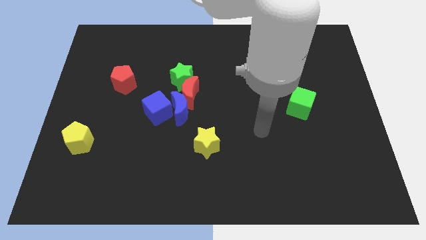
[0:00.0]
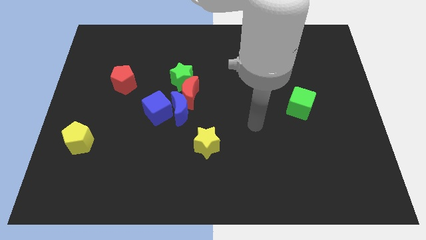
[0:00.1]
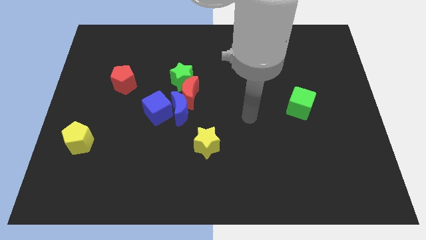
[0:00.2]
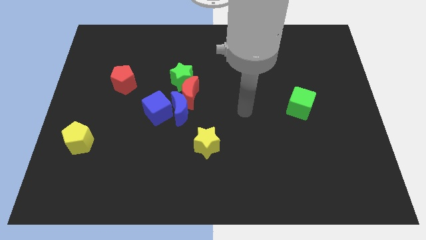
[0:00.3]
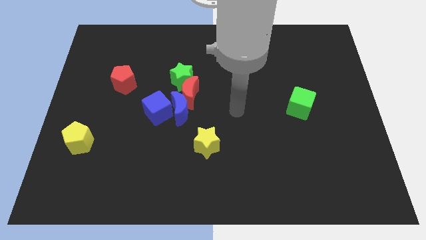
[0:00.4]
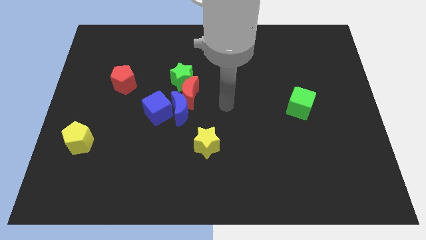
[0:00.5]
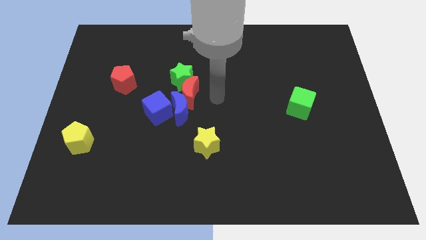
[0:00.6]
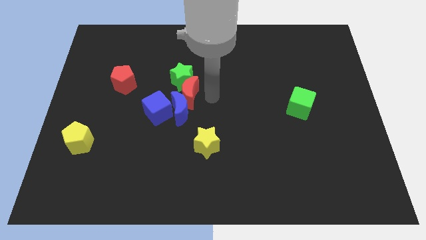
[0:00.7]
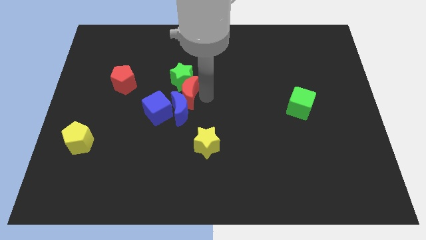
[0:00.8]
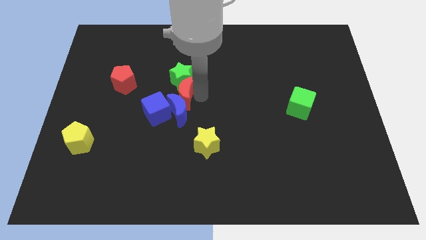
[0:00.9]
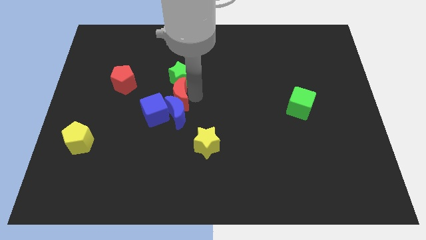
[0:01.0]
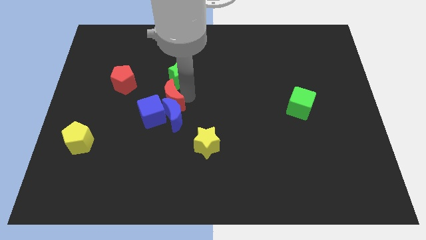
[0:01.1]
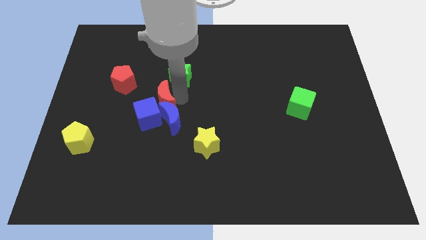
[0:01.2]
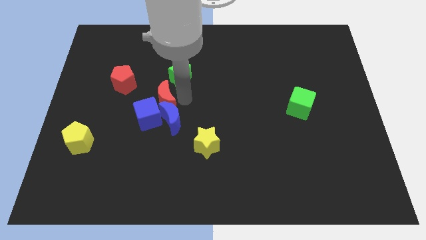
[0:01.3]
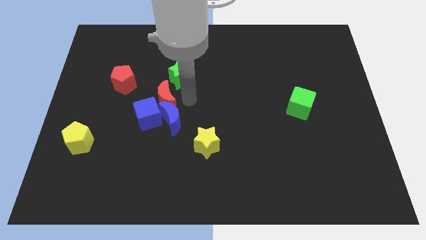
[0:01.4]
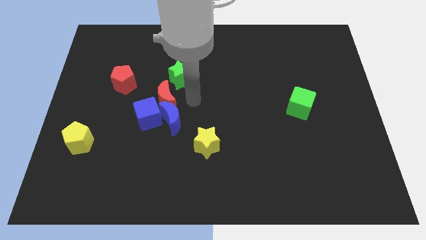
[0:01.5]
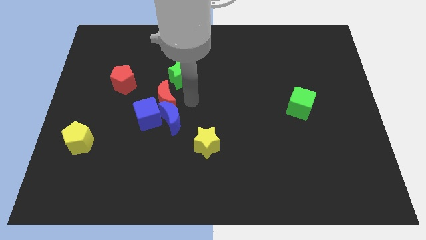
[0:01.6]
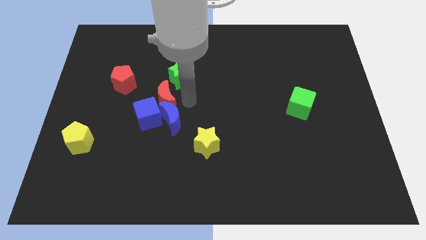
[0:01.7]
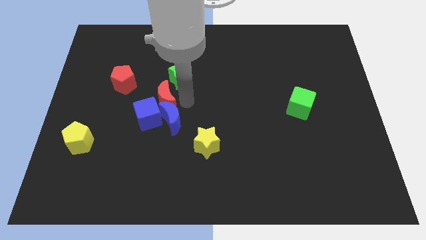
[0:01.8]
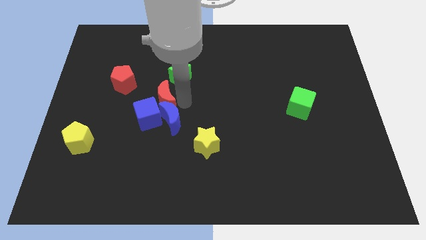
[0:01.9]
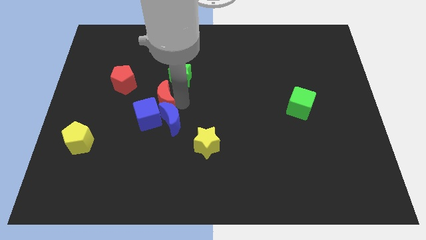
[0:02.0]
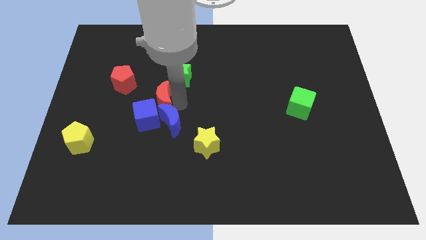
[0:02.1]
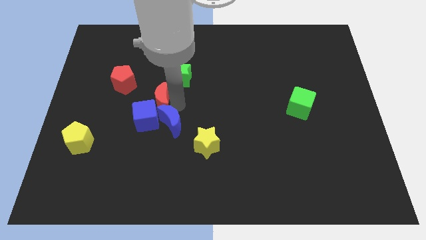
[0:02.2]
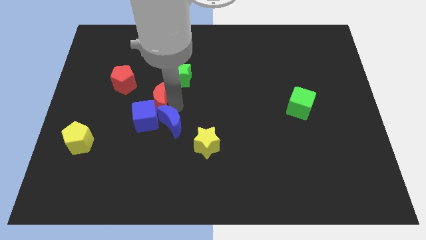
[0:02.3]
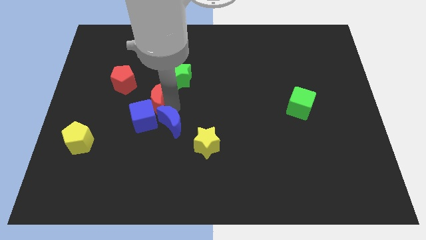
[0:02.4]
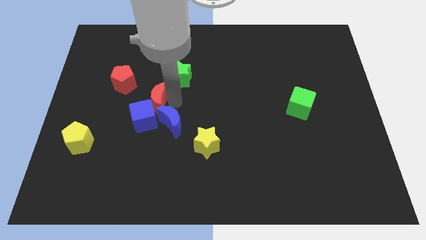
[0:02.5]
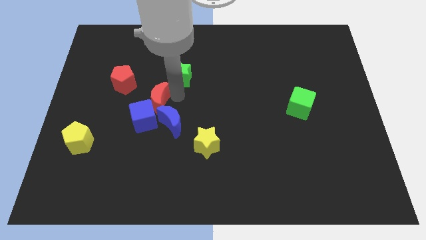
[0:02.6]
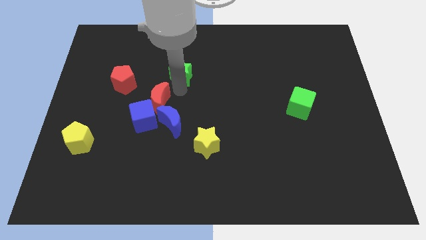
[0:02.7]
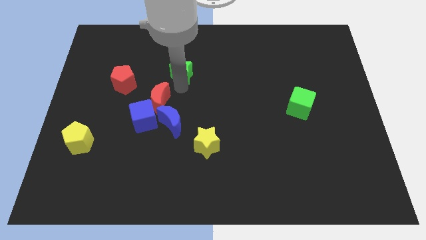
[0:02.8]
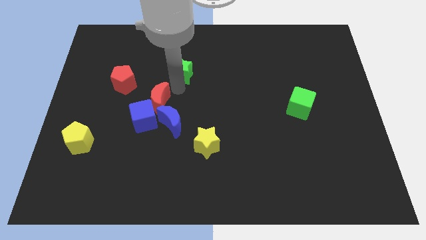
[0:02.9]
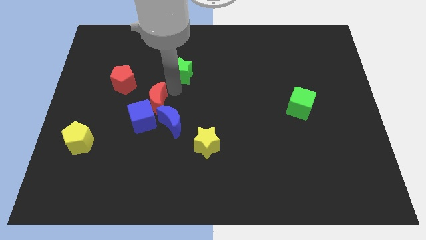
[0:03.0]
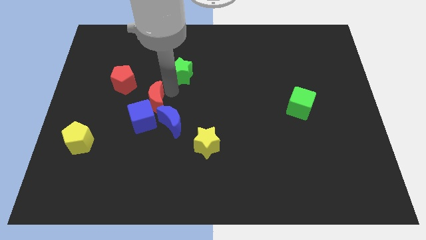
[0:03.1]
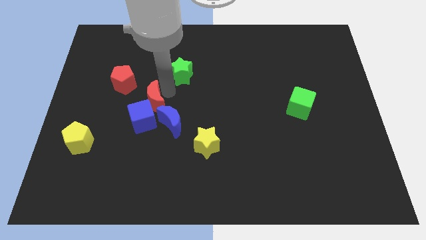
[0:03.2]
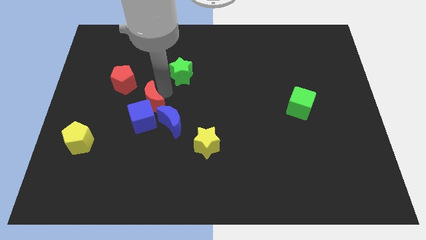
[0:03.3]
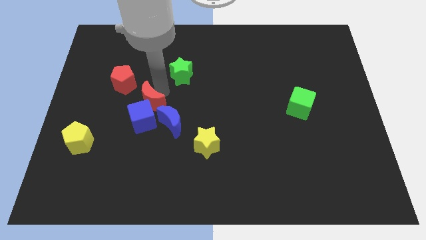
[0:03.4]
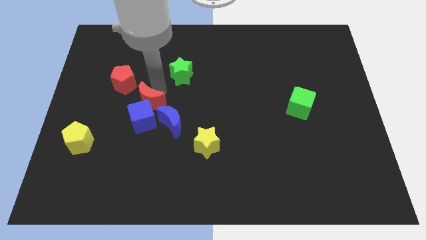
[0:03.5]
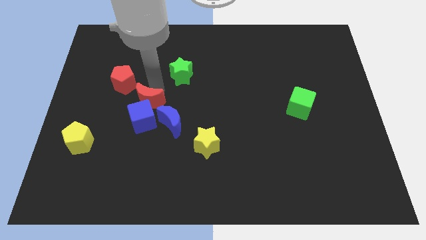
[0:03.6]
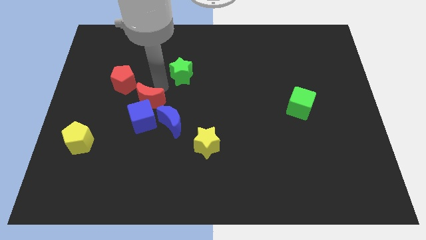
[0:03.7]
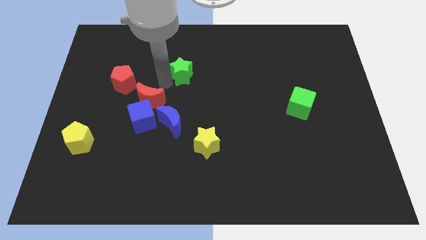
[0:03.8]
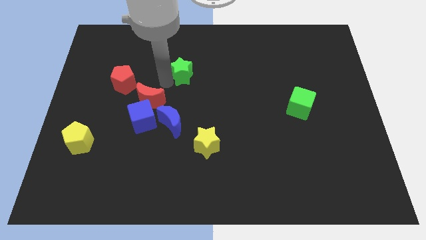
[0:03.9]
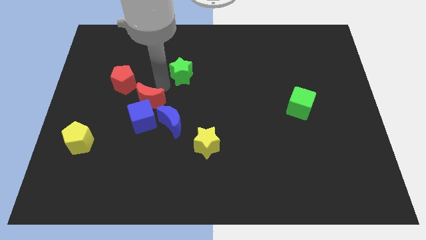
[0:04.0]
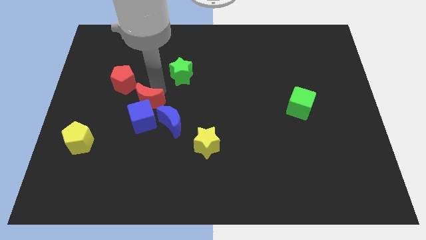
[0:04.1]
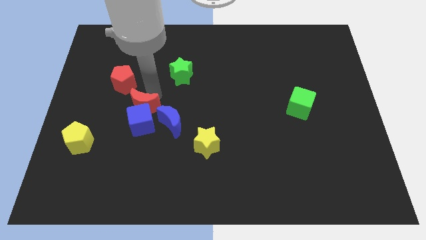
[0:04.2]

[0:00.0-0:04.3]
push the red moon downwards and then to the left a little bit

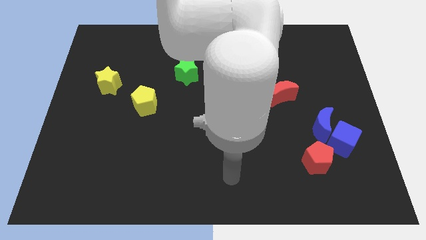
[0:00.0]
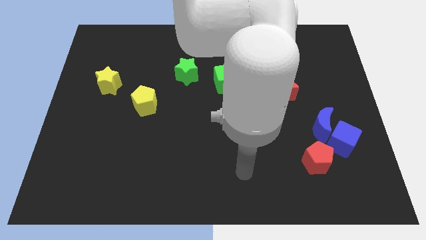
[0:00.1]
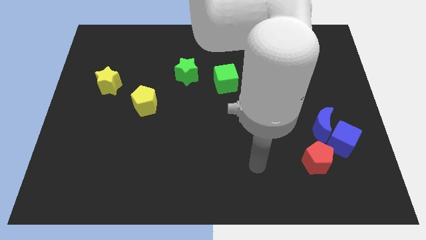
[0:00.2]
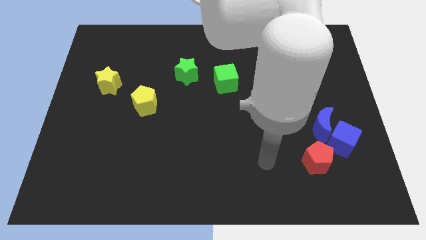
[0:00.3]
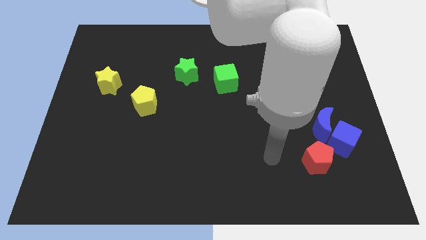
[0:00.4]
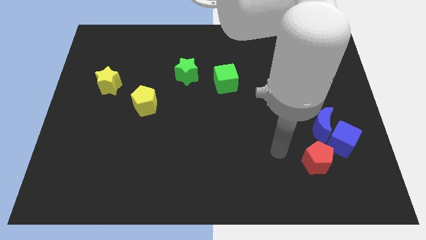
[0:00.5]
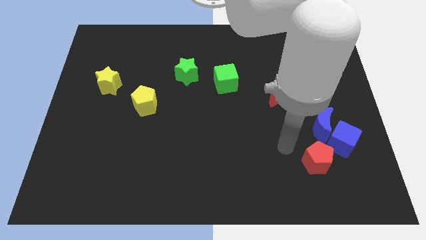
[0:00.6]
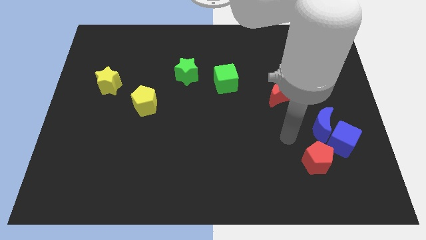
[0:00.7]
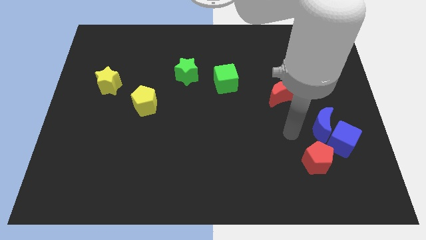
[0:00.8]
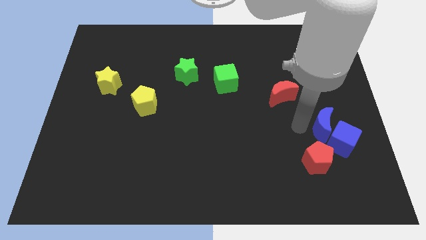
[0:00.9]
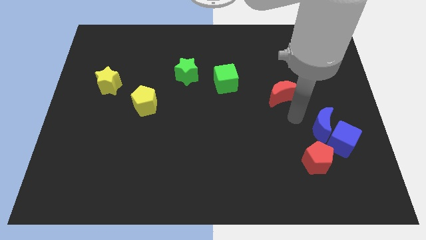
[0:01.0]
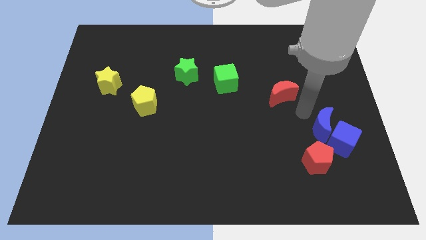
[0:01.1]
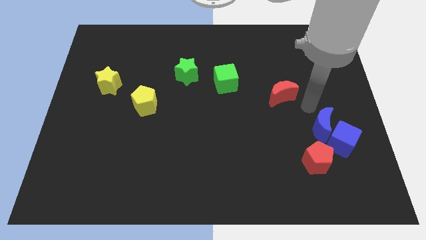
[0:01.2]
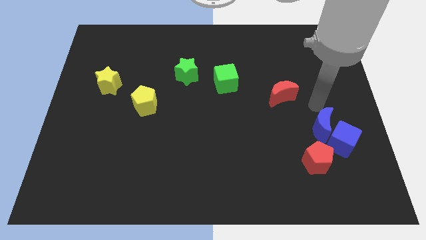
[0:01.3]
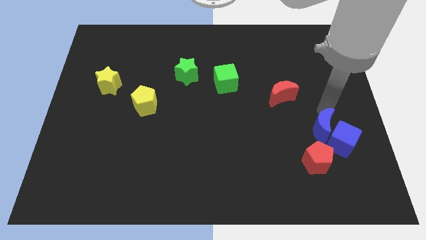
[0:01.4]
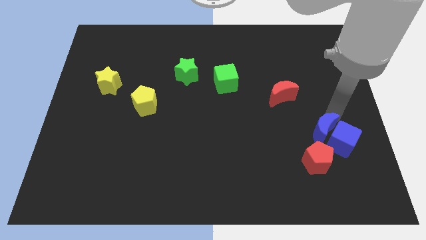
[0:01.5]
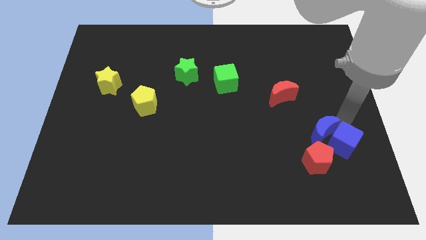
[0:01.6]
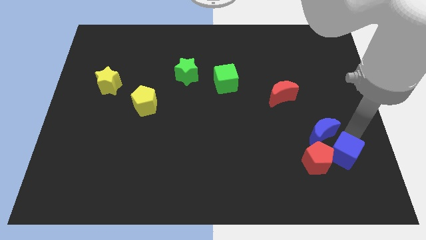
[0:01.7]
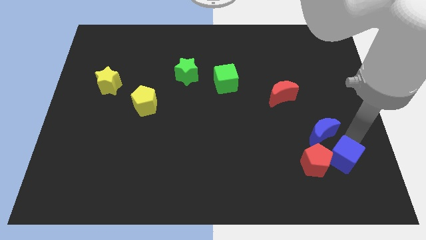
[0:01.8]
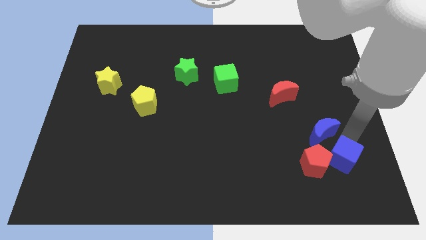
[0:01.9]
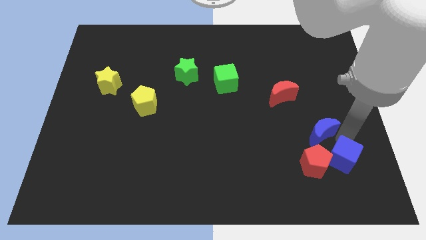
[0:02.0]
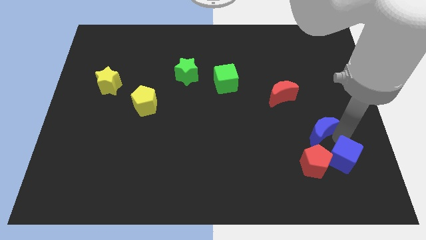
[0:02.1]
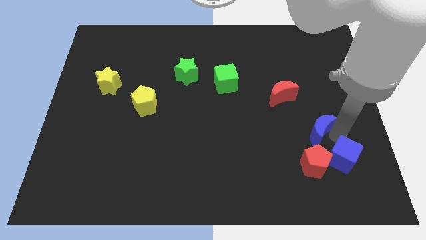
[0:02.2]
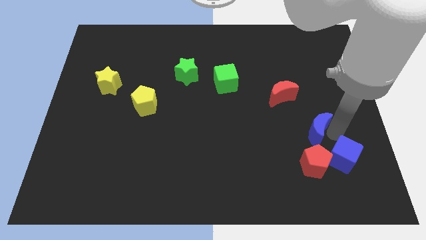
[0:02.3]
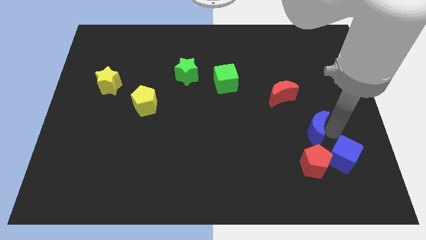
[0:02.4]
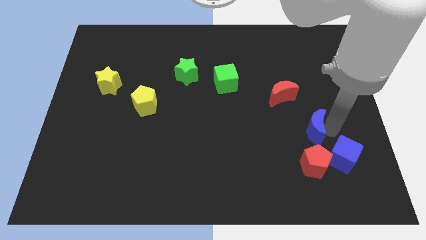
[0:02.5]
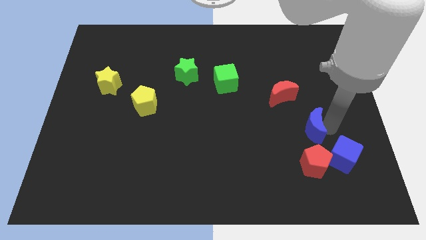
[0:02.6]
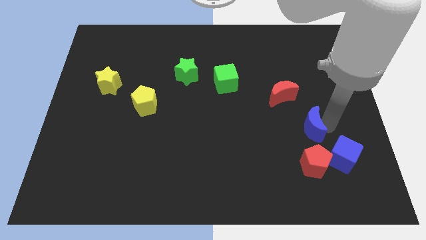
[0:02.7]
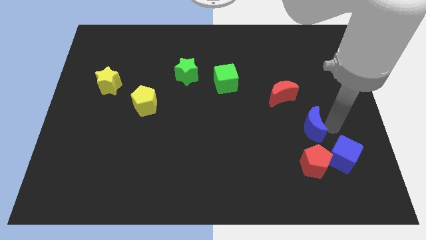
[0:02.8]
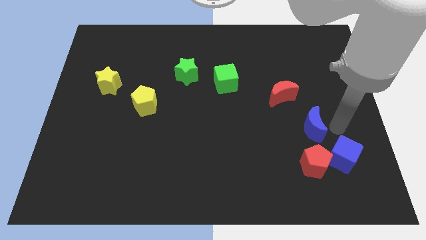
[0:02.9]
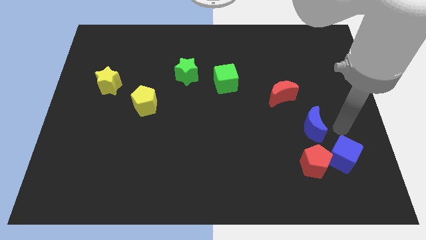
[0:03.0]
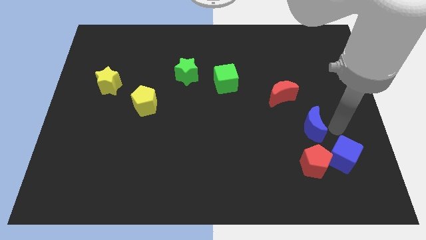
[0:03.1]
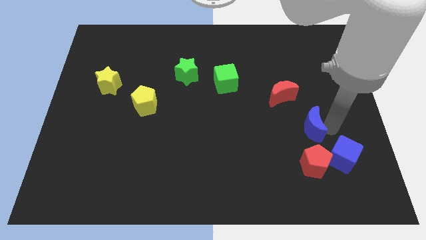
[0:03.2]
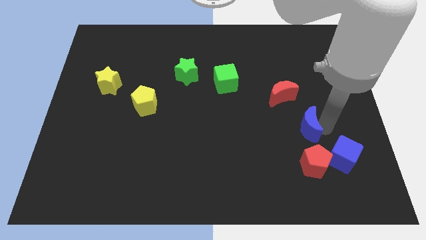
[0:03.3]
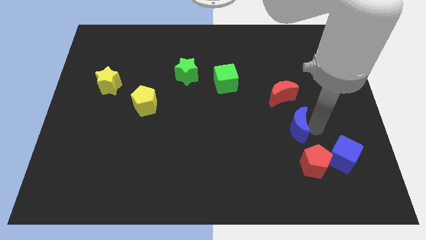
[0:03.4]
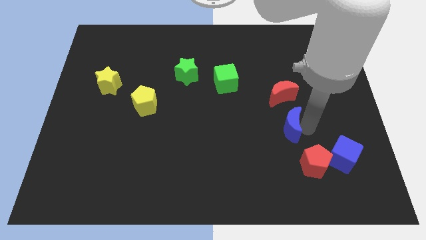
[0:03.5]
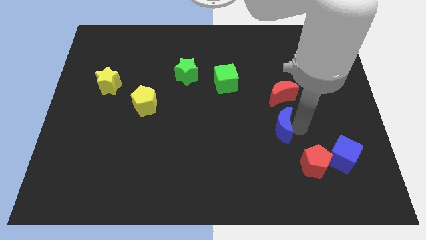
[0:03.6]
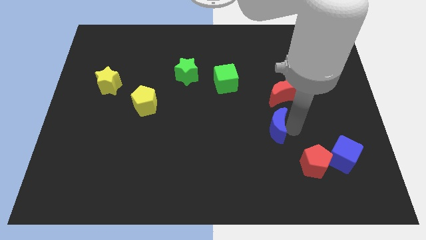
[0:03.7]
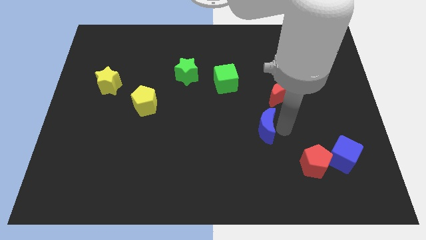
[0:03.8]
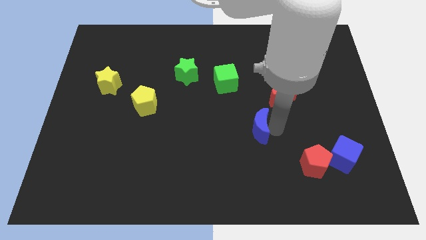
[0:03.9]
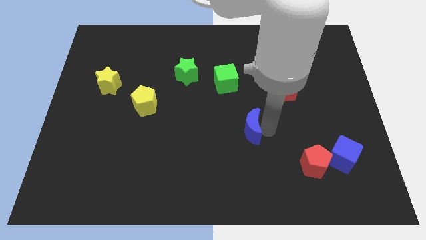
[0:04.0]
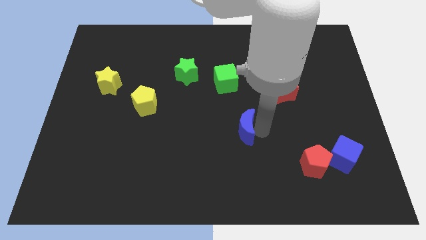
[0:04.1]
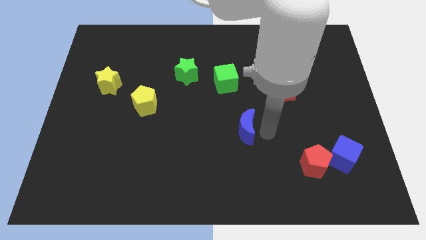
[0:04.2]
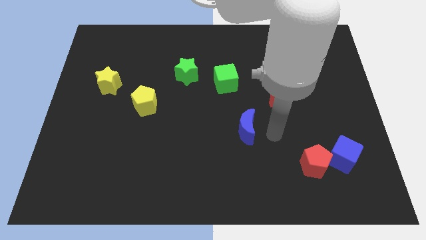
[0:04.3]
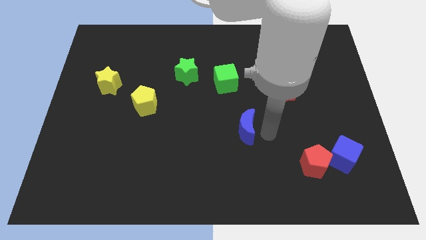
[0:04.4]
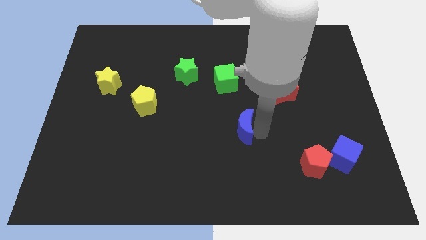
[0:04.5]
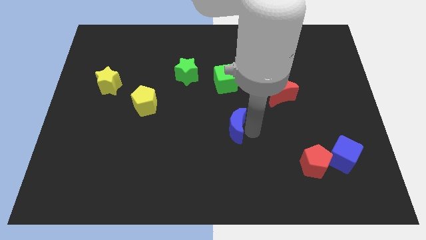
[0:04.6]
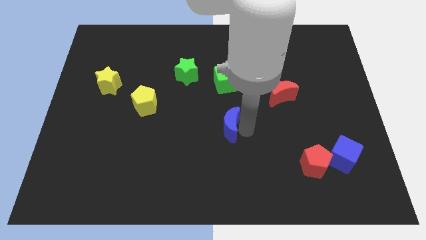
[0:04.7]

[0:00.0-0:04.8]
push the blue moon to the left
